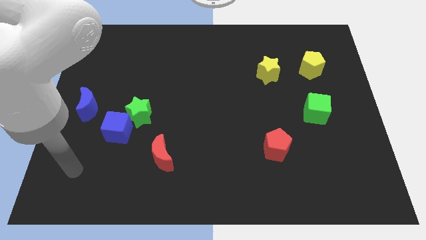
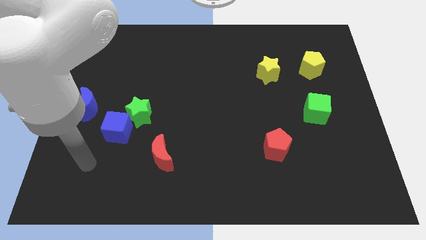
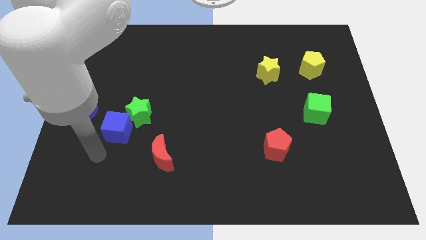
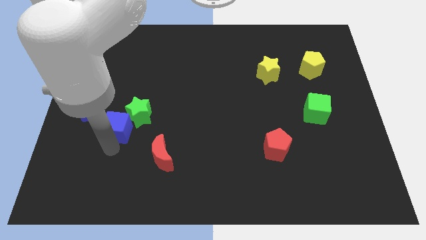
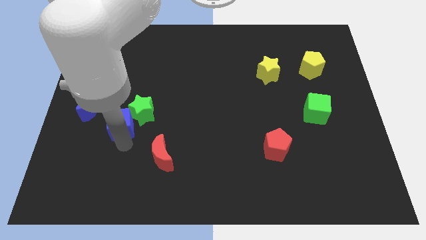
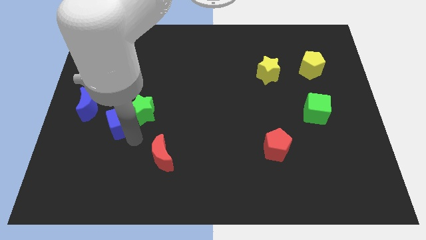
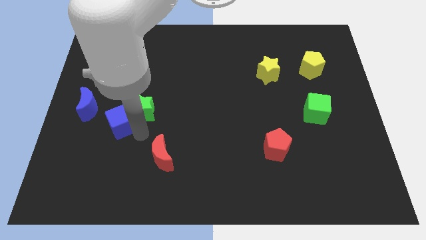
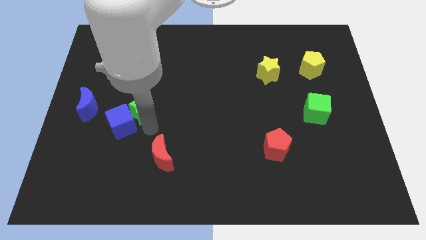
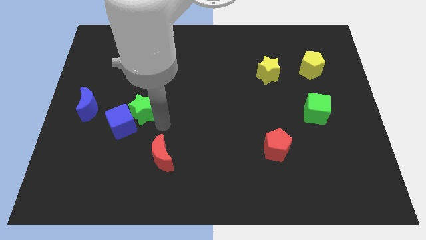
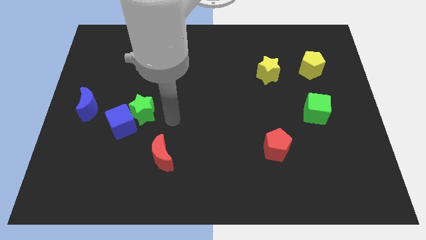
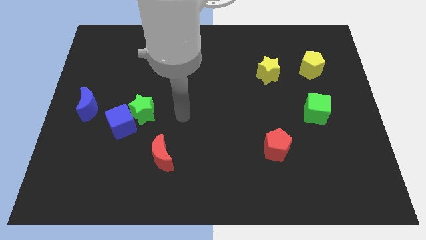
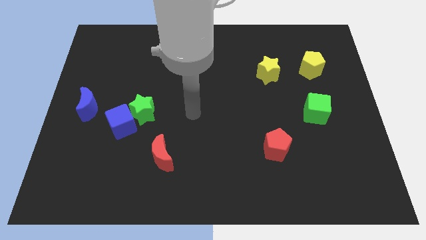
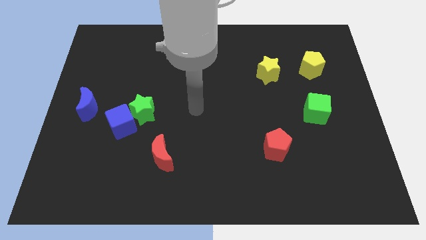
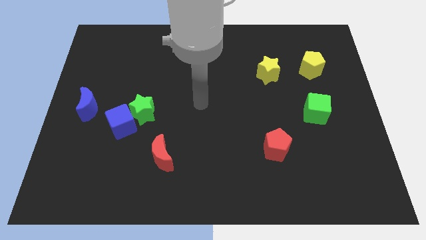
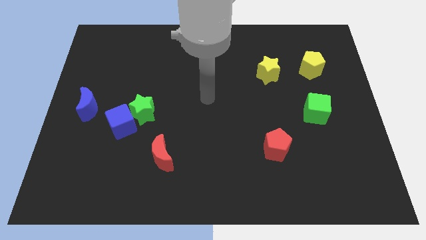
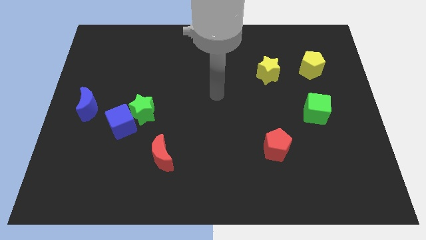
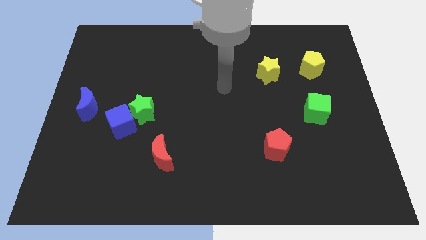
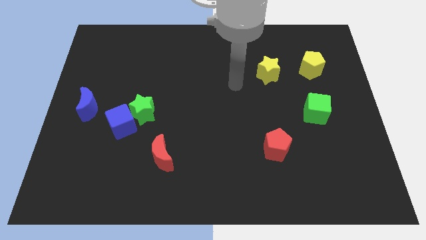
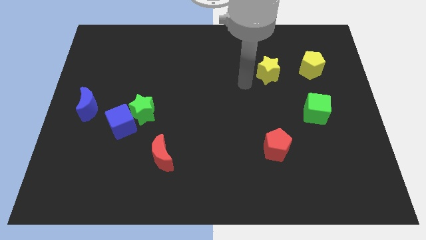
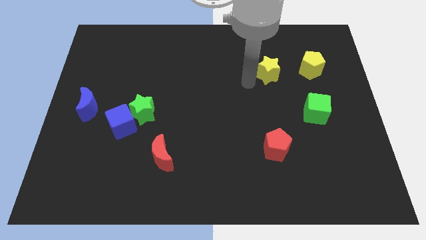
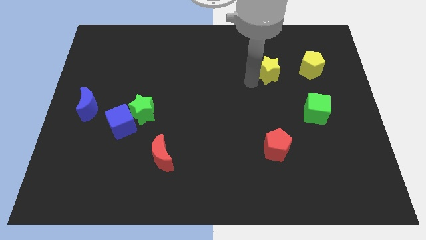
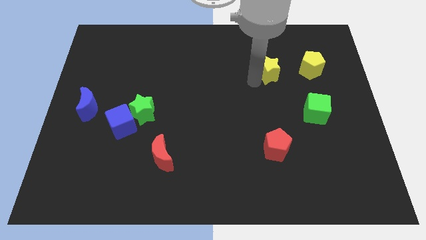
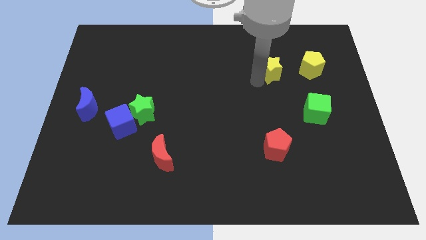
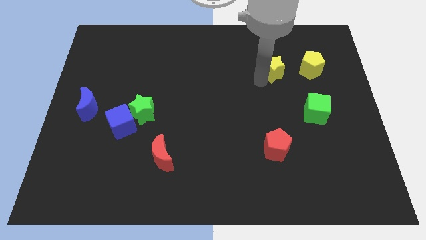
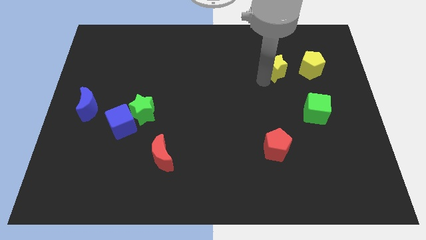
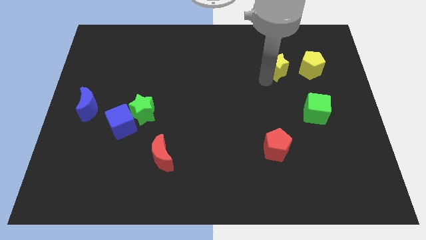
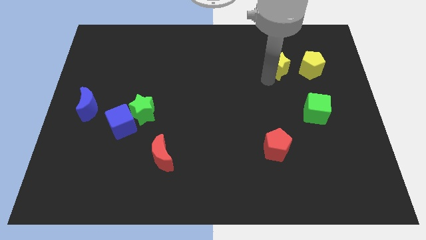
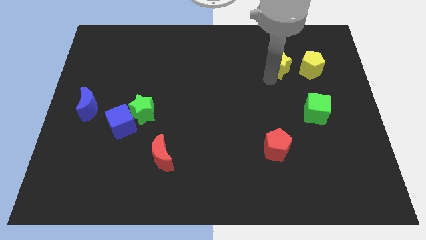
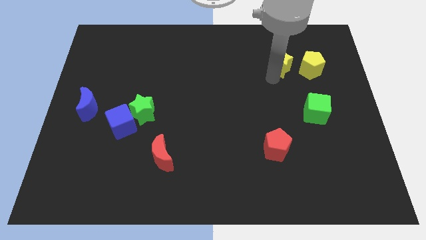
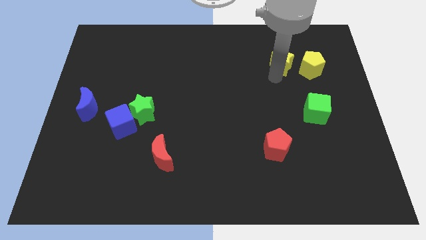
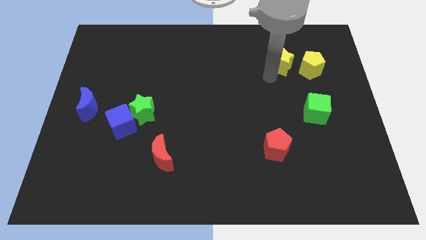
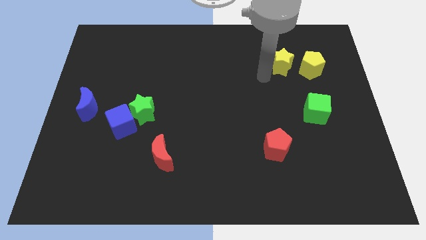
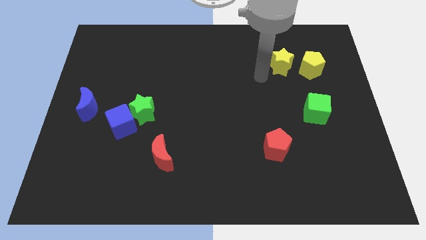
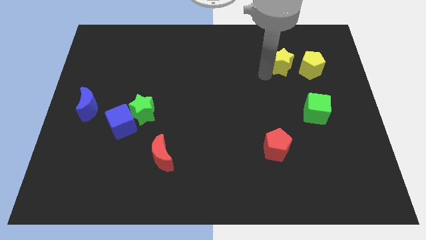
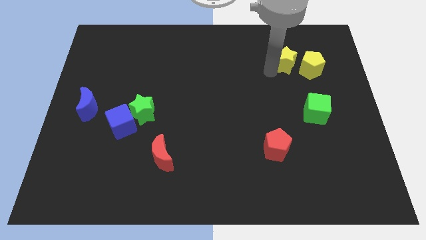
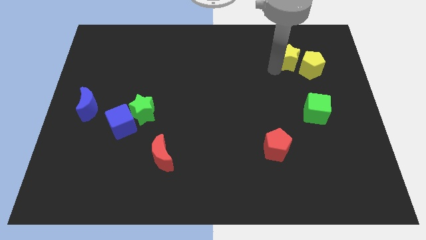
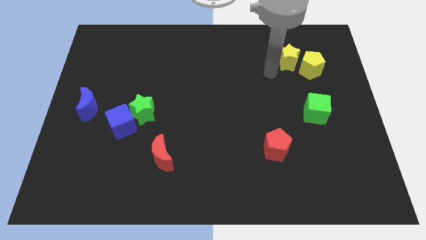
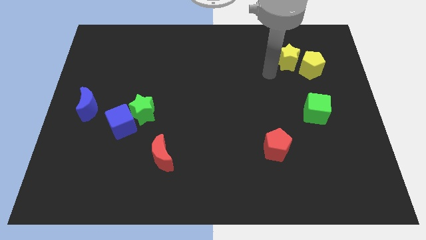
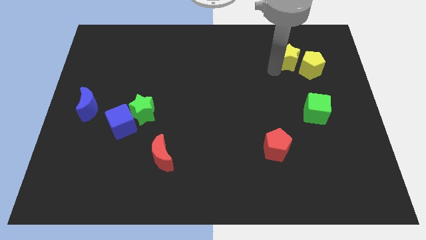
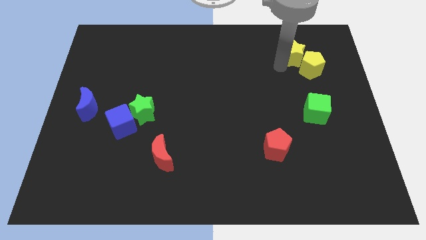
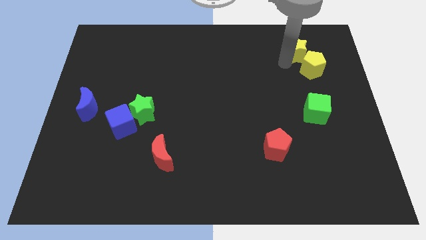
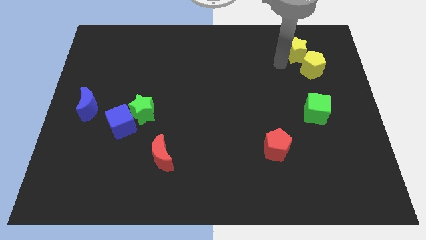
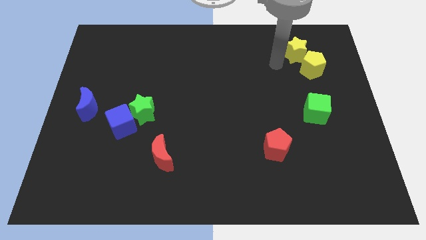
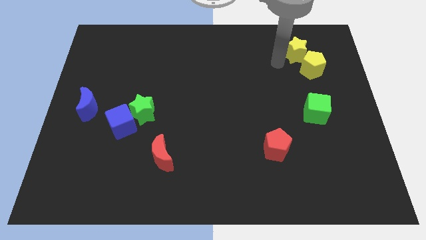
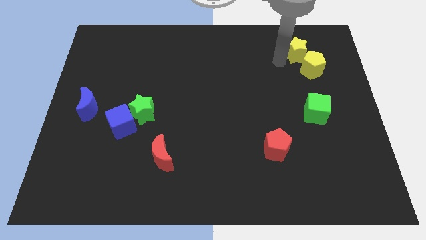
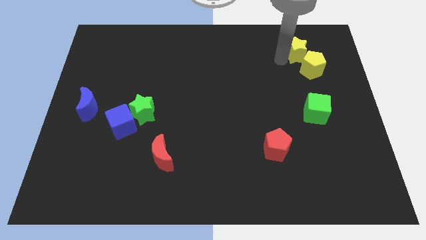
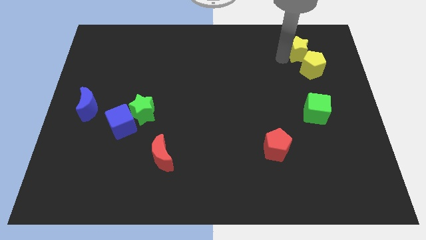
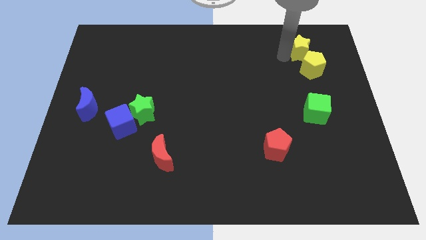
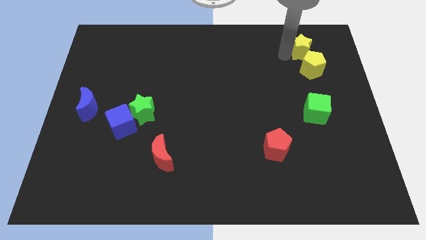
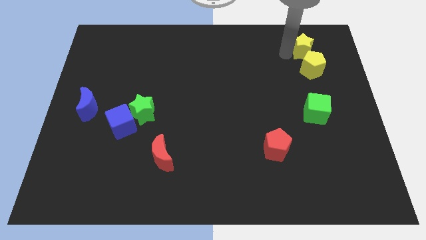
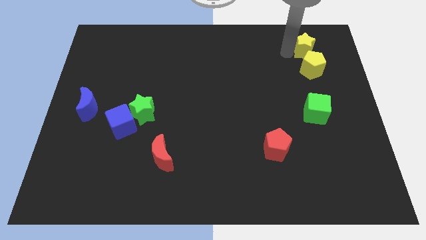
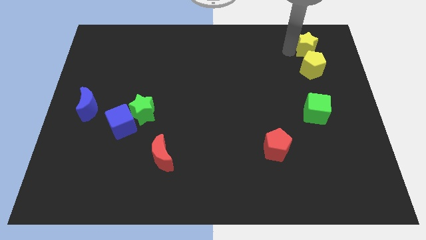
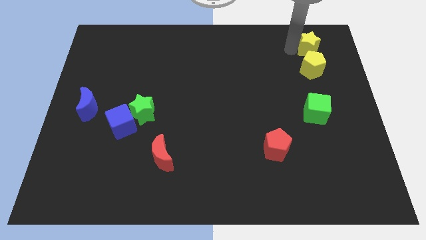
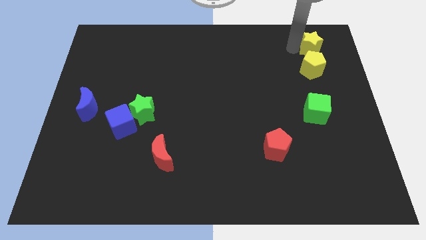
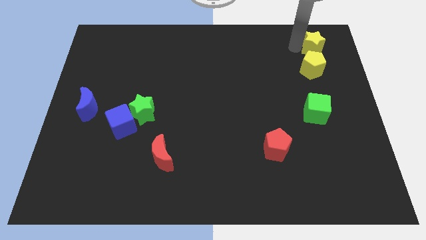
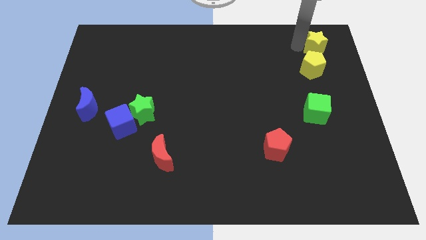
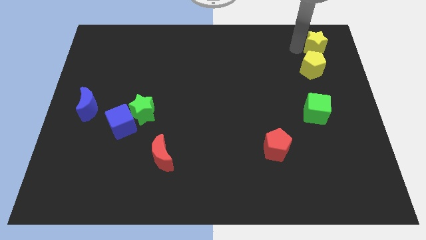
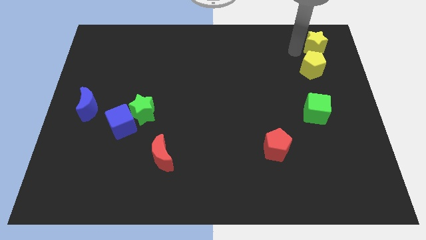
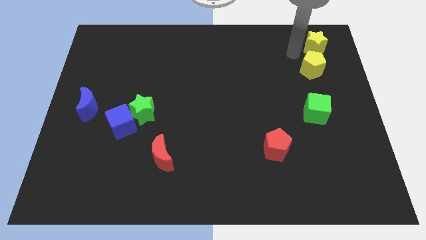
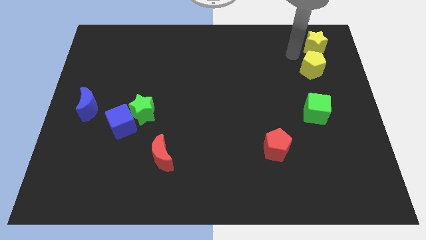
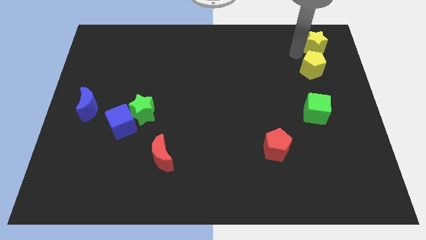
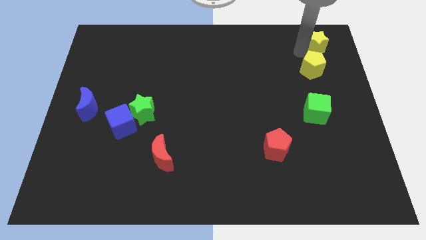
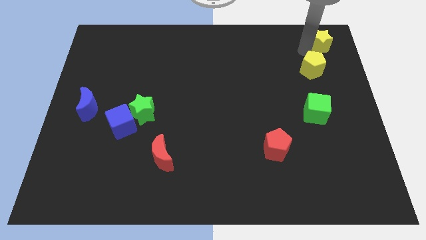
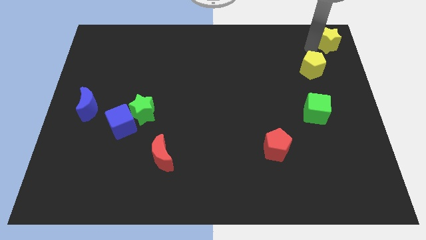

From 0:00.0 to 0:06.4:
put the yellow star to the top right of the board

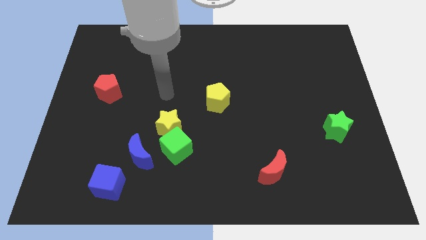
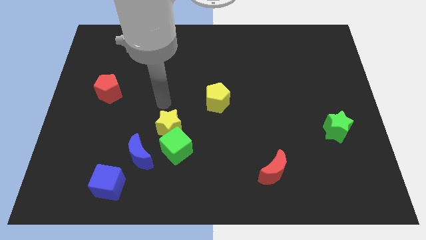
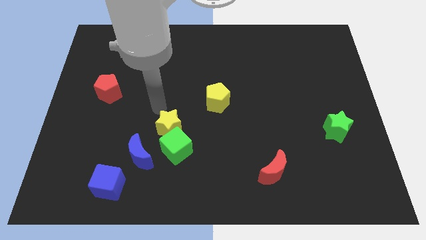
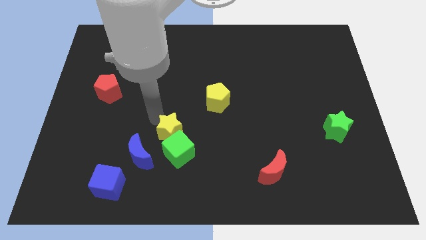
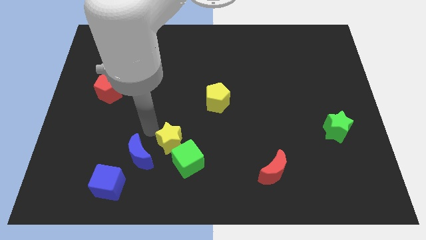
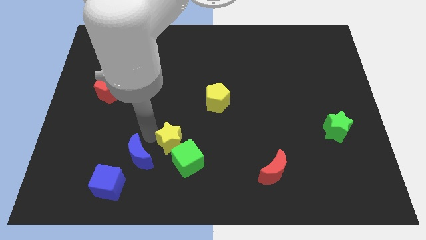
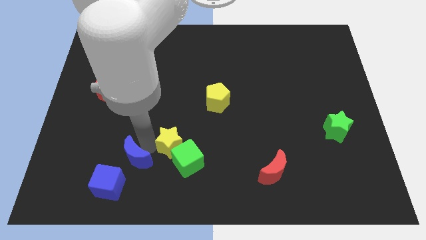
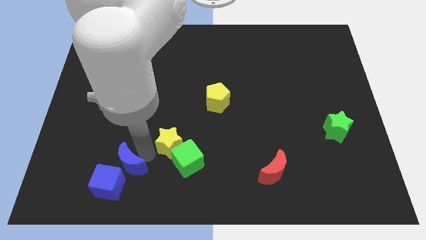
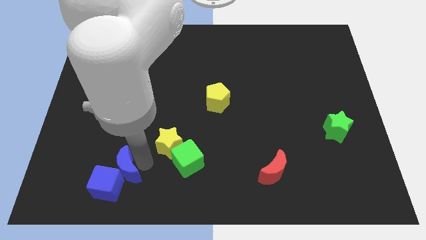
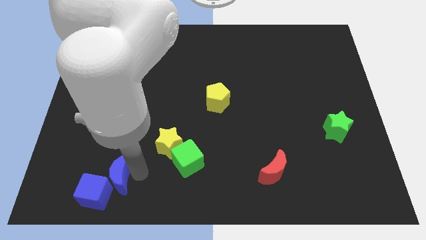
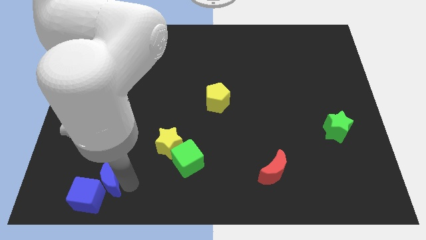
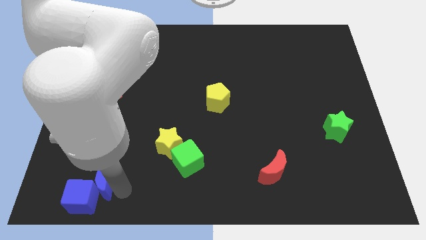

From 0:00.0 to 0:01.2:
push the blue cube to the bottom left of the board
